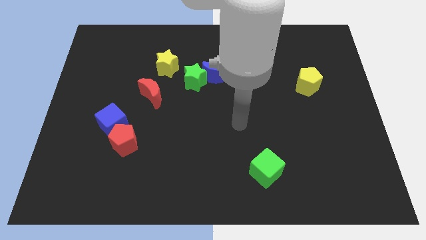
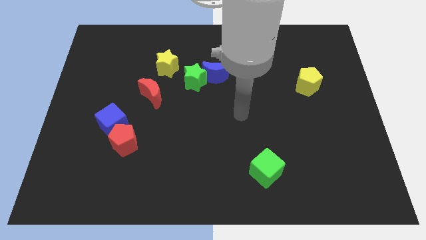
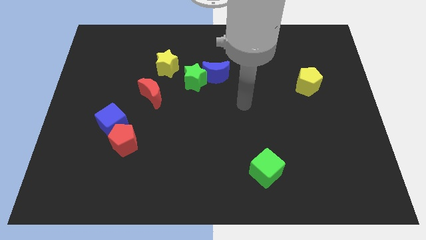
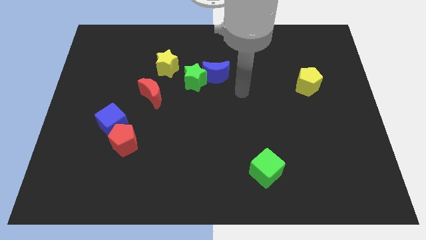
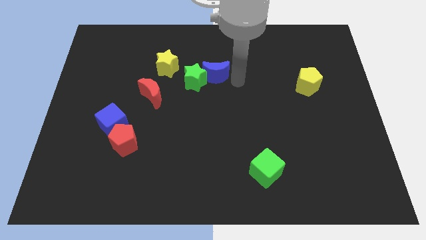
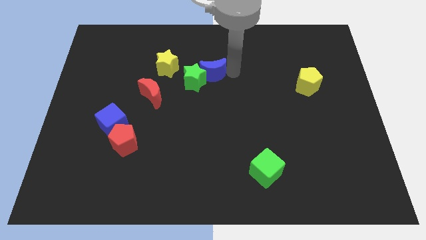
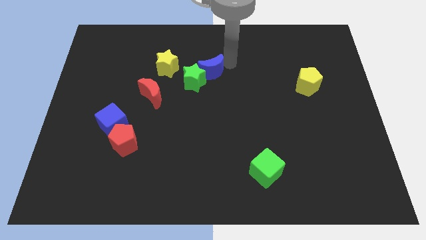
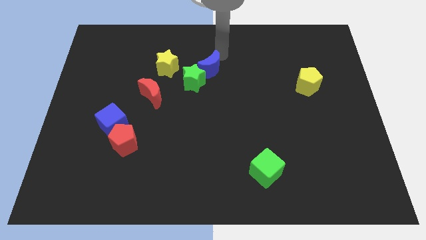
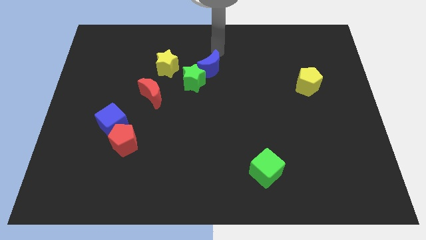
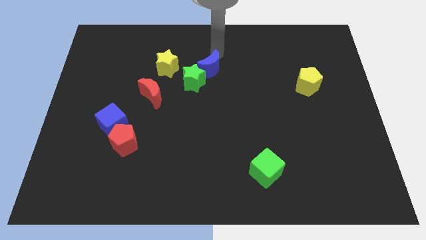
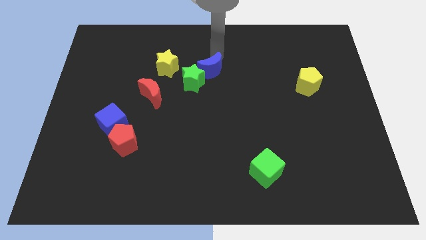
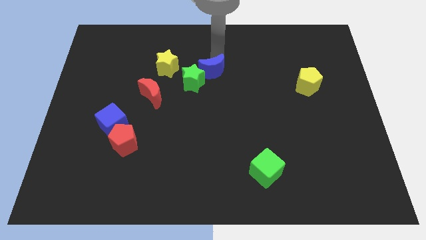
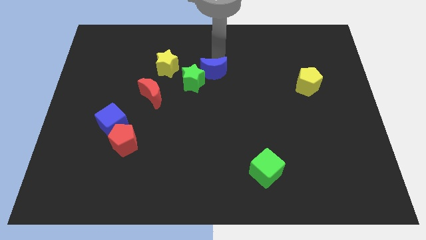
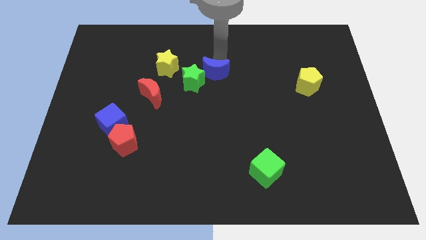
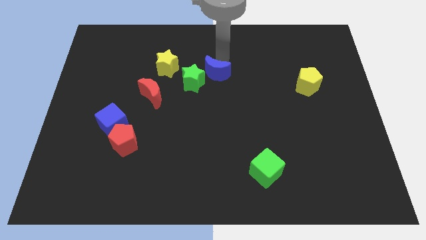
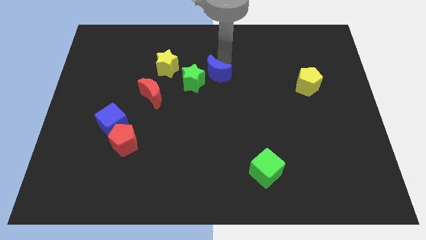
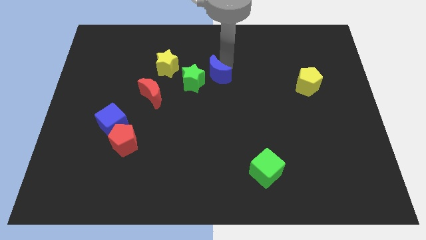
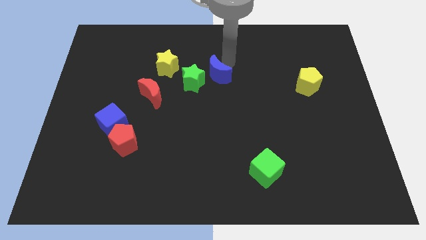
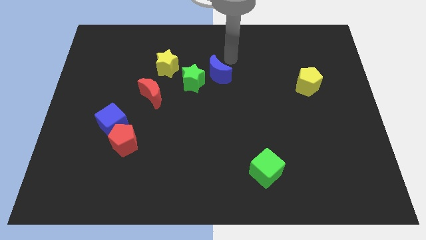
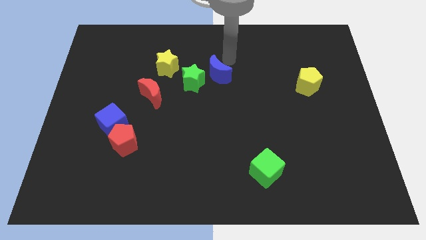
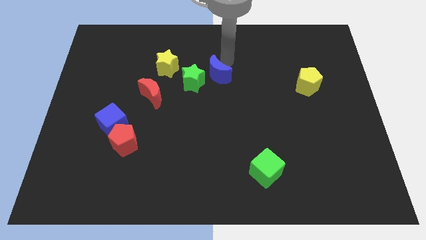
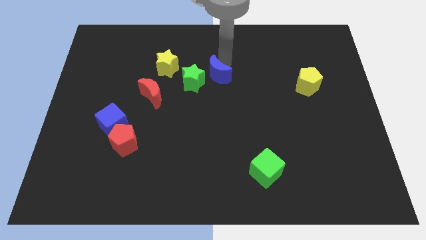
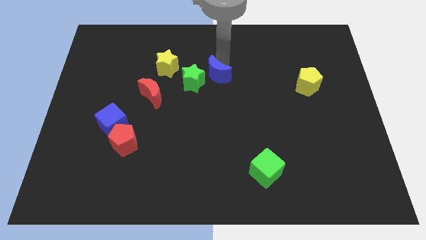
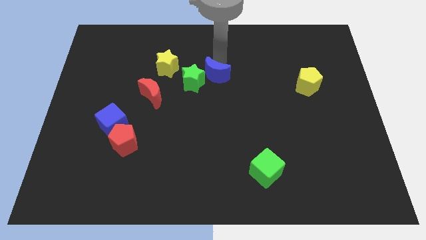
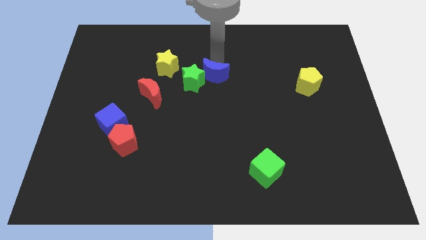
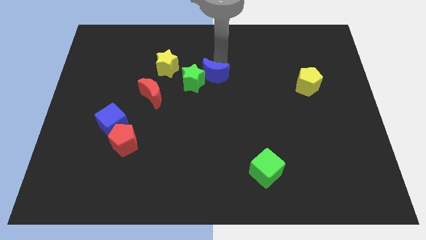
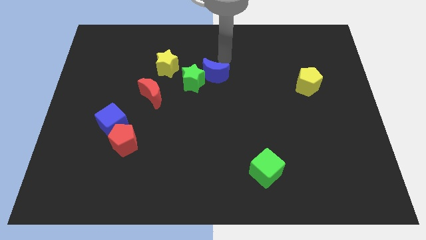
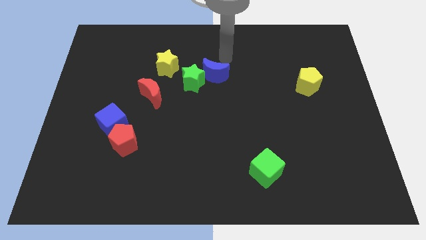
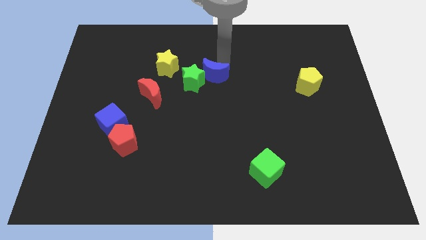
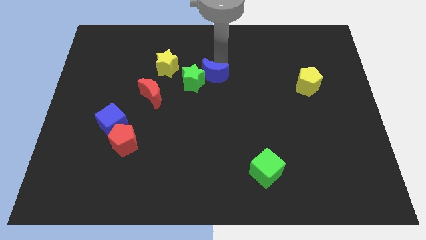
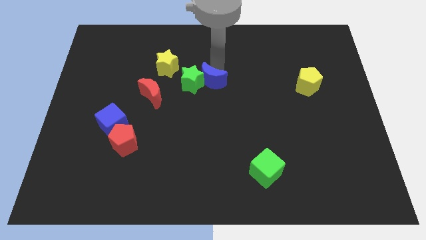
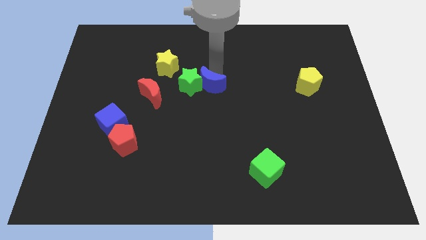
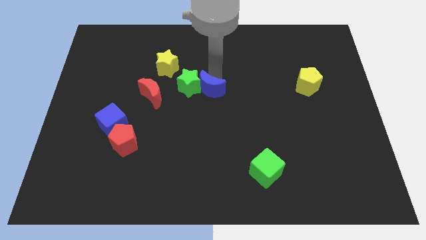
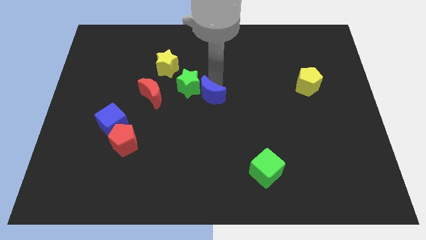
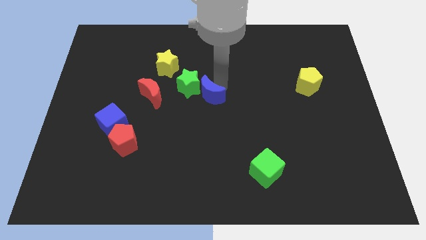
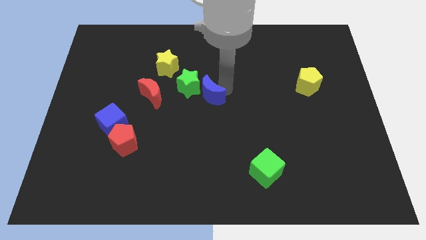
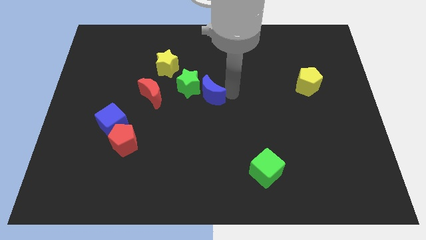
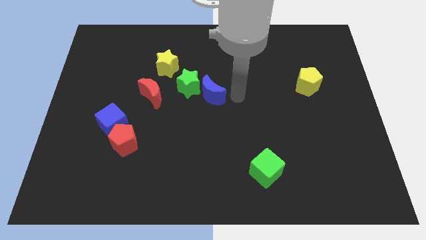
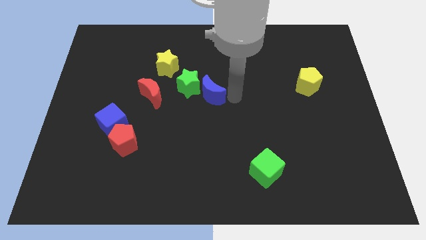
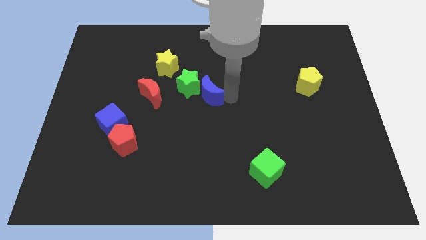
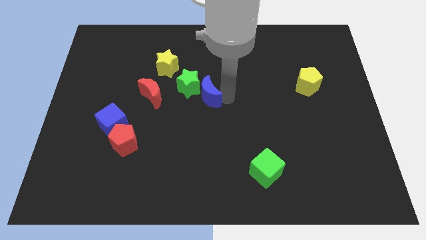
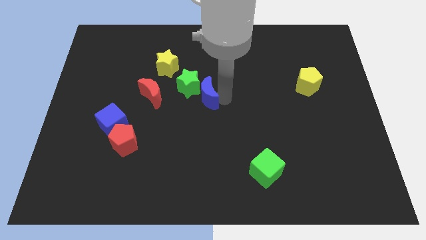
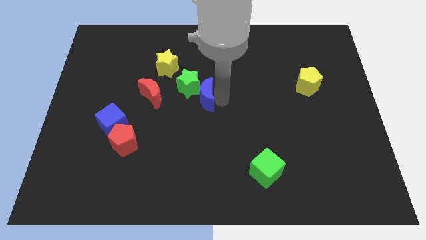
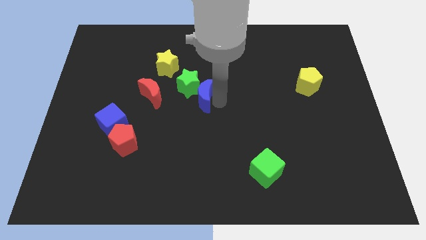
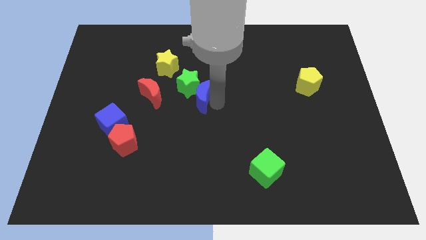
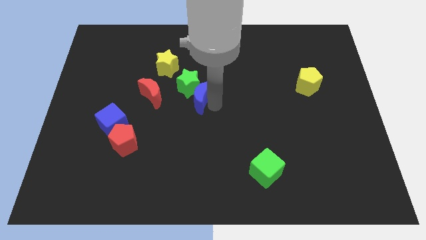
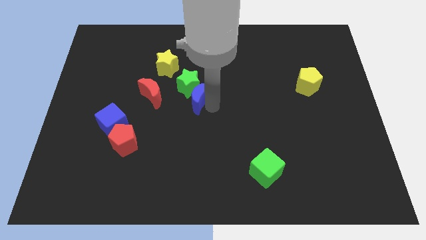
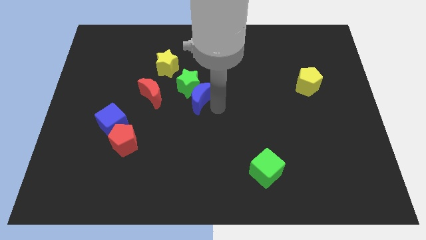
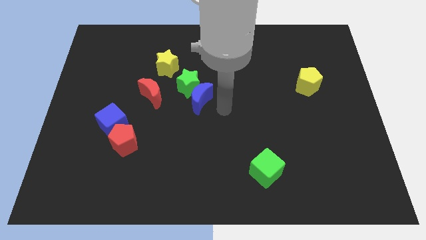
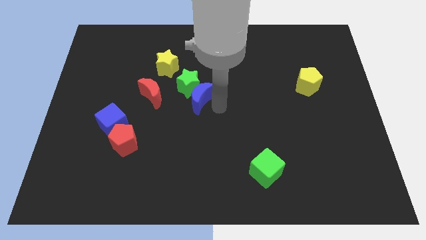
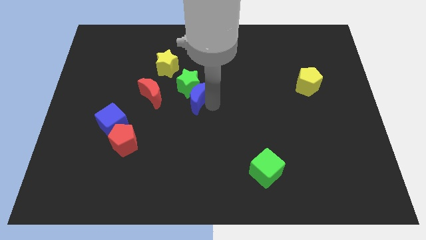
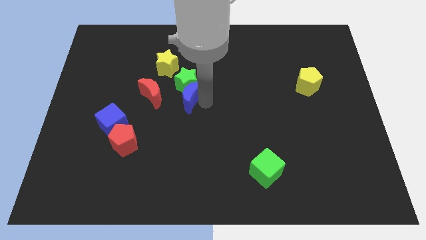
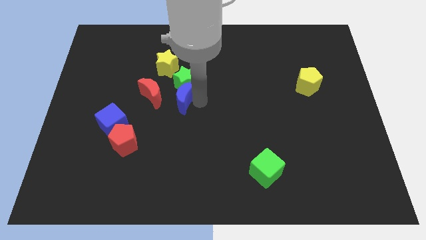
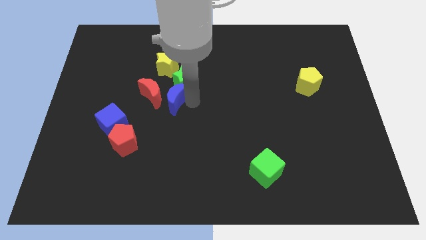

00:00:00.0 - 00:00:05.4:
move the blue moon a little left

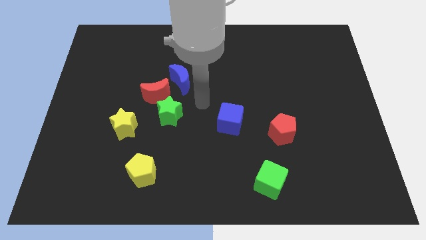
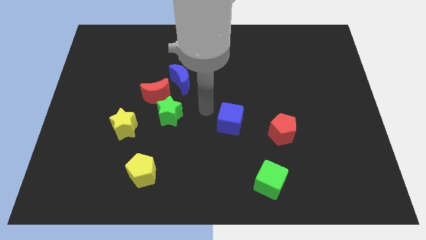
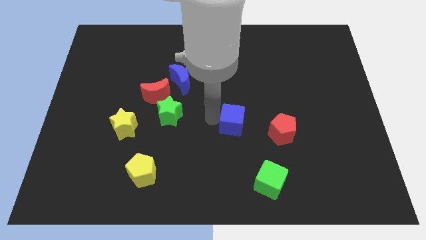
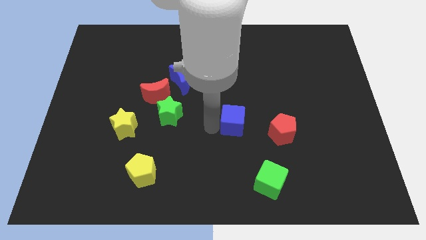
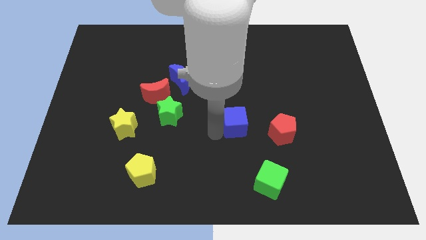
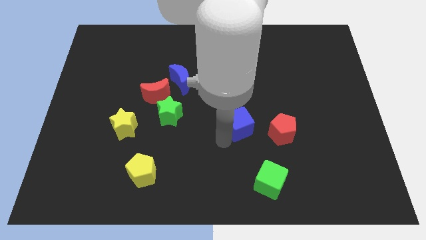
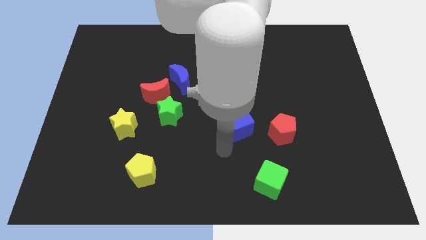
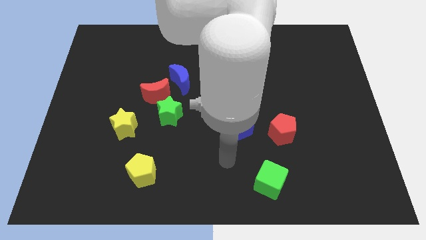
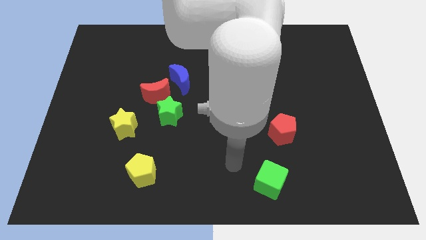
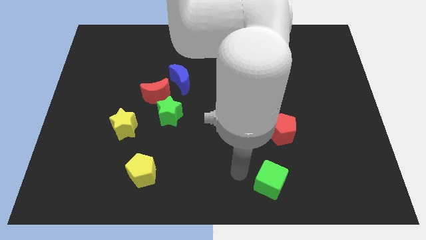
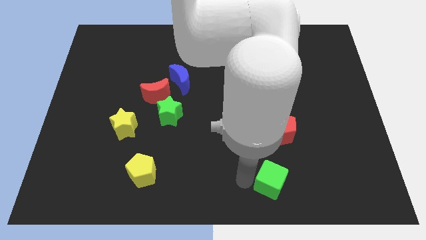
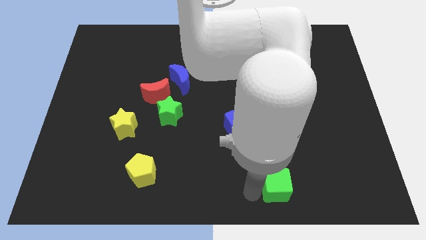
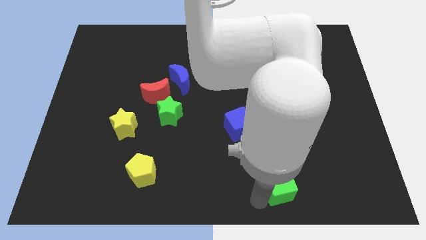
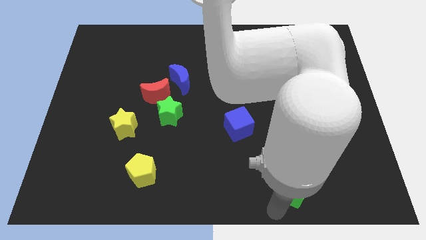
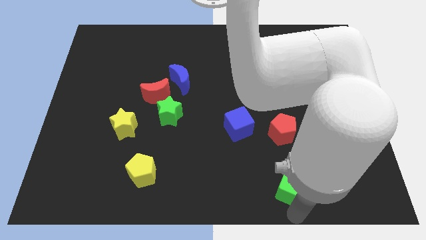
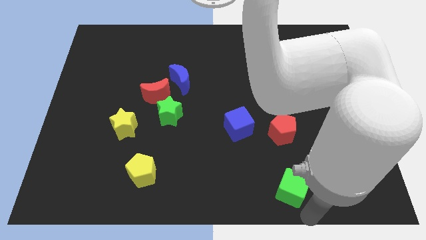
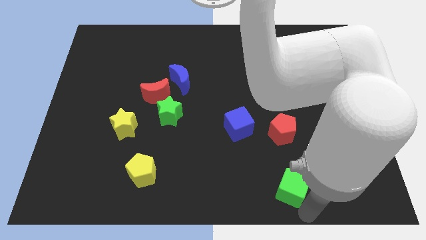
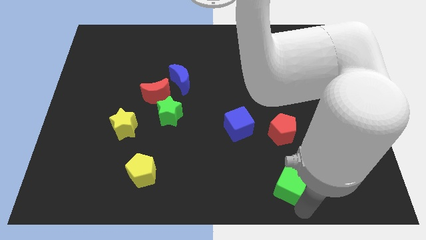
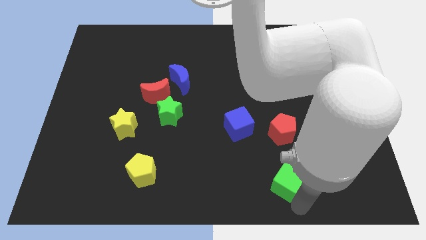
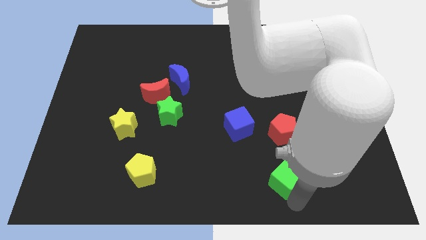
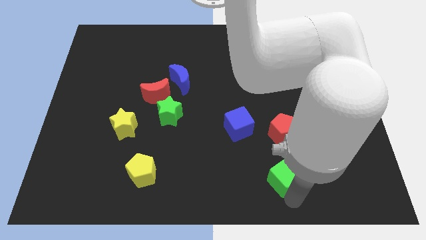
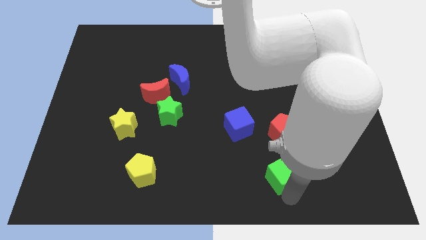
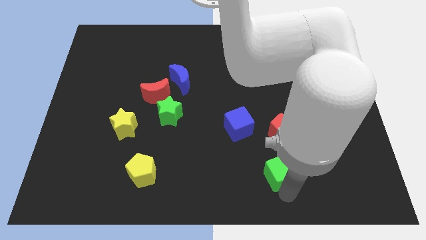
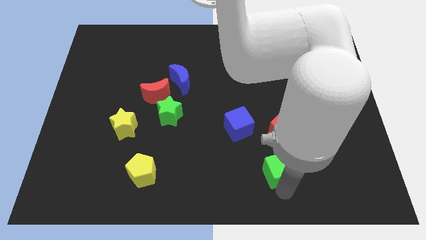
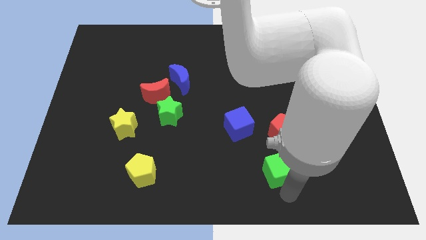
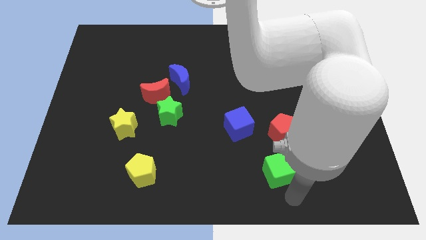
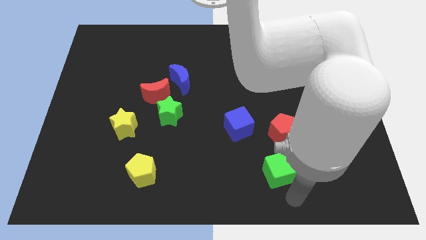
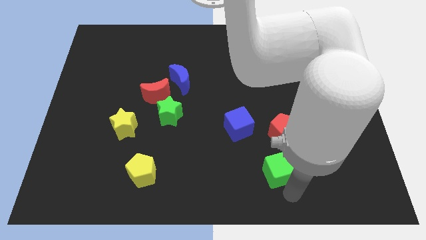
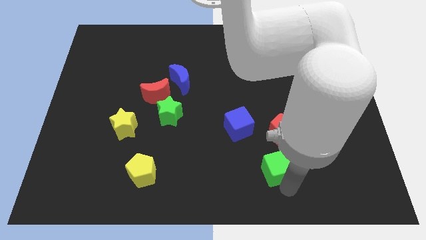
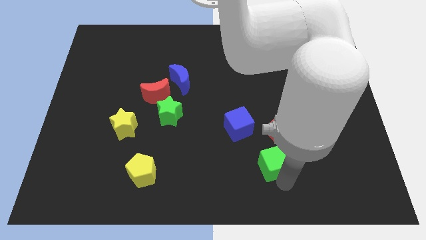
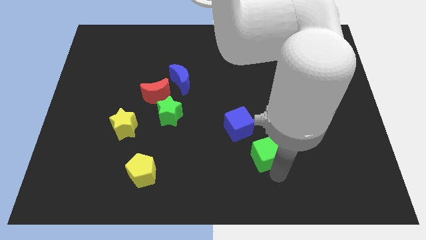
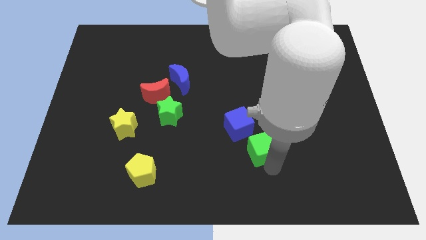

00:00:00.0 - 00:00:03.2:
push the green cube upwards slightly
